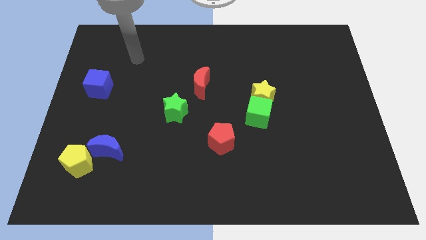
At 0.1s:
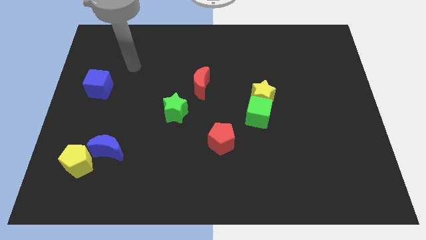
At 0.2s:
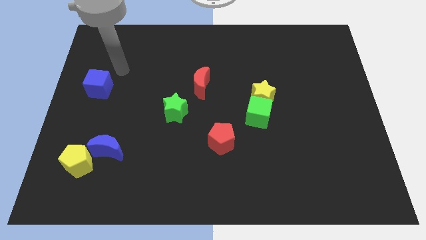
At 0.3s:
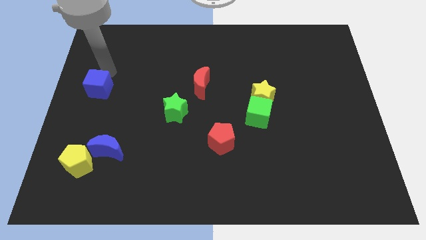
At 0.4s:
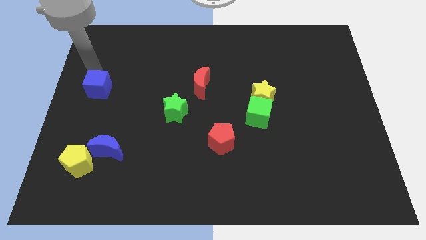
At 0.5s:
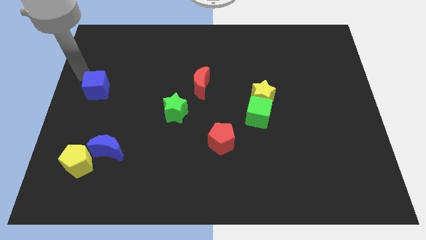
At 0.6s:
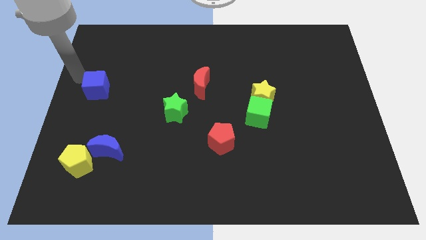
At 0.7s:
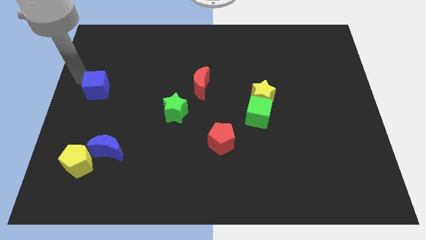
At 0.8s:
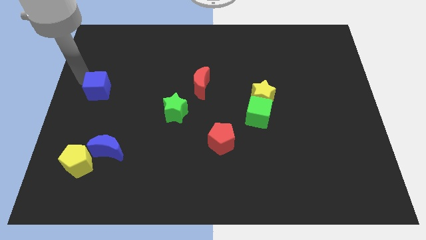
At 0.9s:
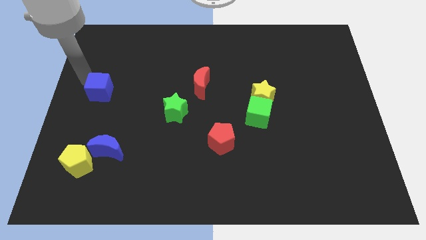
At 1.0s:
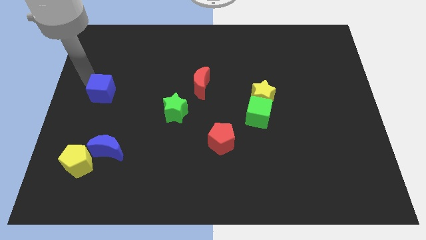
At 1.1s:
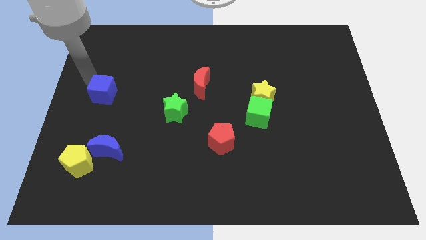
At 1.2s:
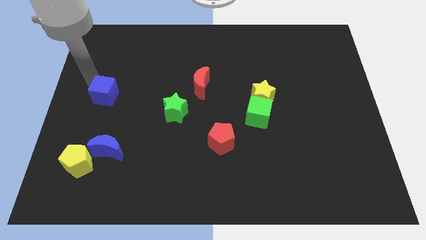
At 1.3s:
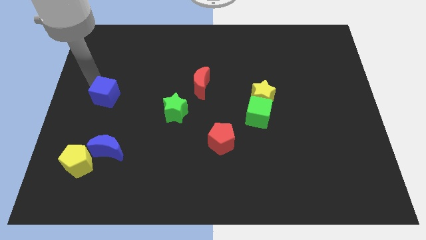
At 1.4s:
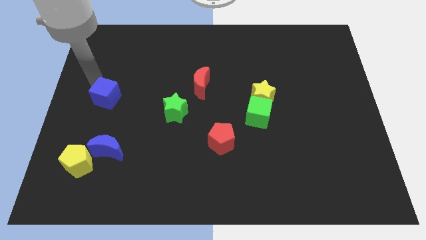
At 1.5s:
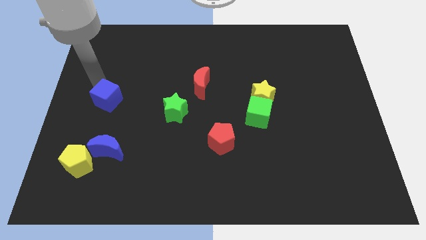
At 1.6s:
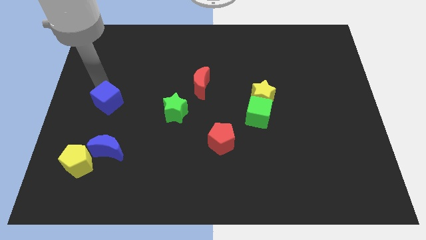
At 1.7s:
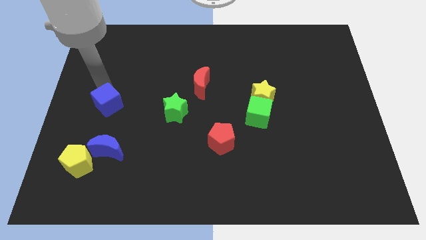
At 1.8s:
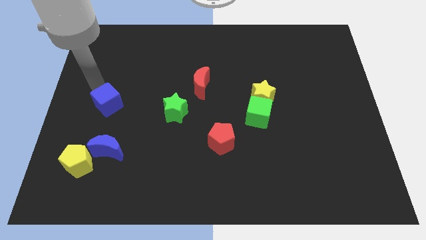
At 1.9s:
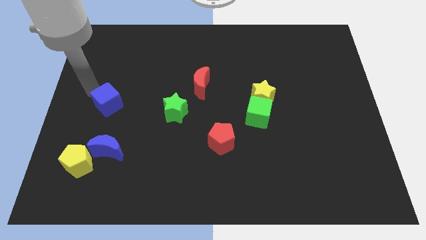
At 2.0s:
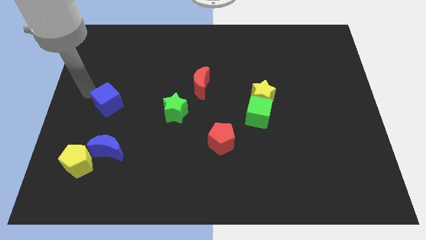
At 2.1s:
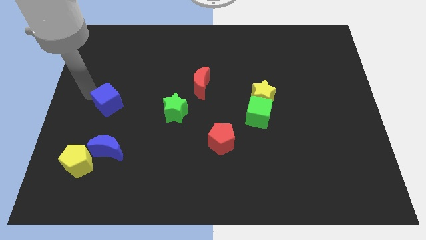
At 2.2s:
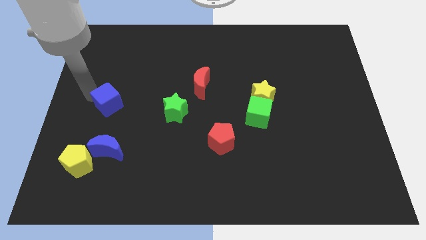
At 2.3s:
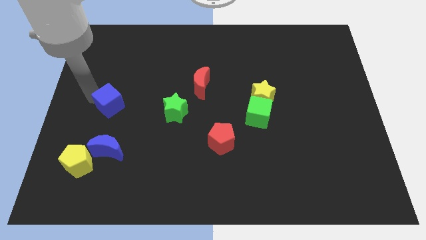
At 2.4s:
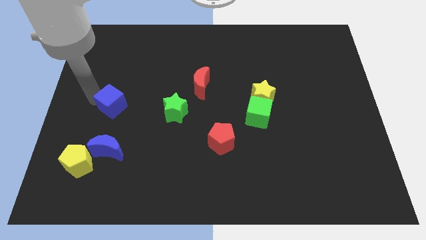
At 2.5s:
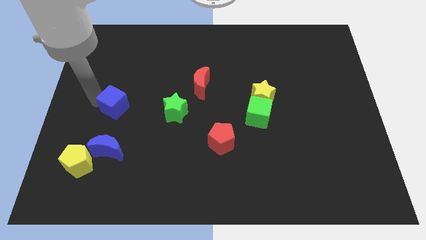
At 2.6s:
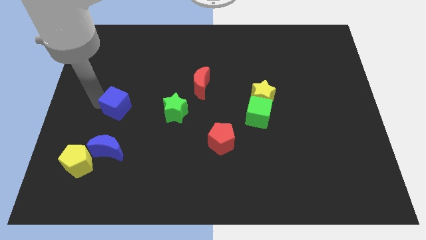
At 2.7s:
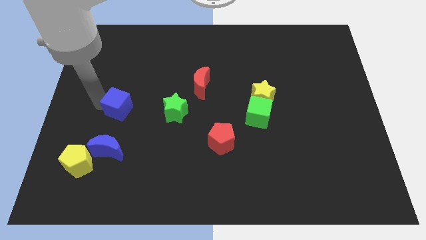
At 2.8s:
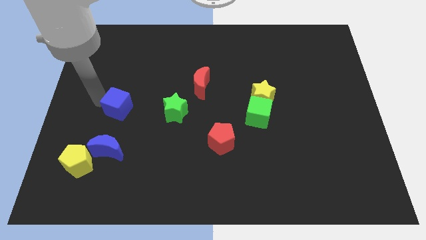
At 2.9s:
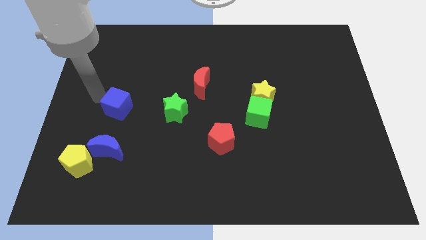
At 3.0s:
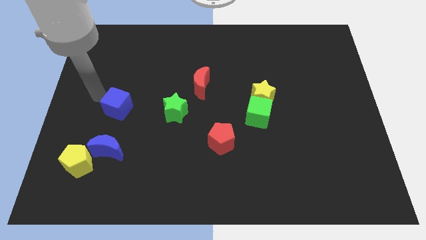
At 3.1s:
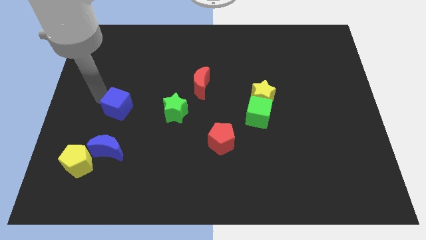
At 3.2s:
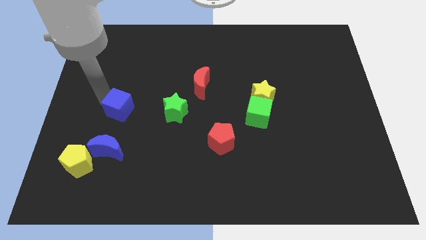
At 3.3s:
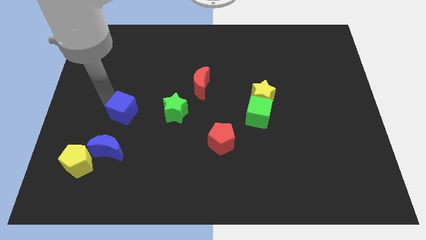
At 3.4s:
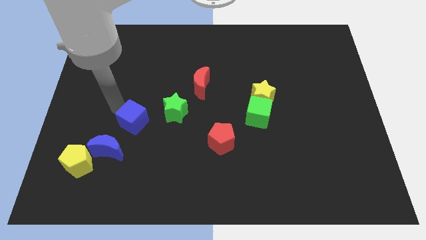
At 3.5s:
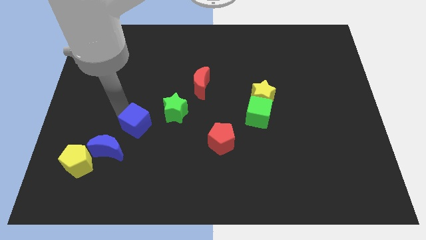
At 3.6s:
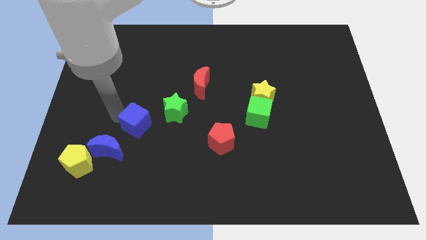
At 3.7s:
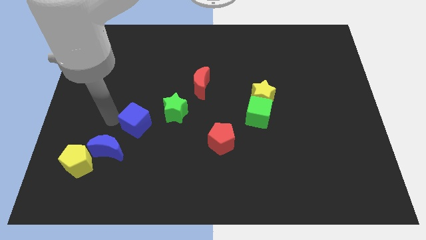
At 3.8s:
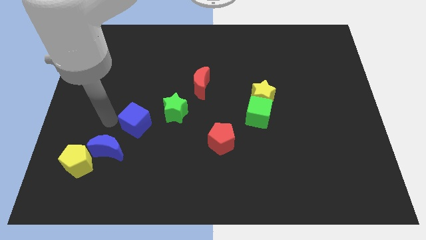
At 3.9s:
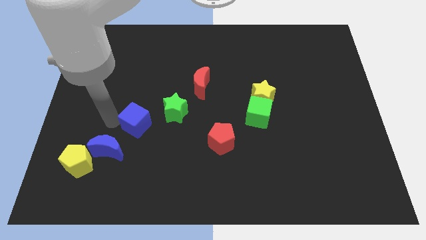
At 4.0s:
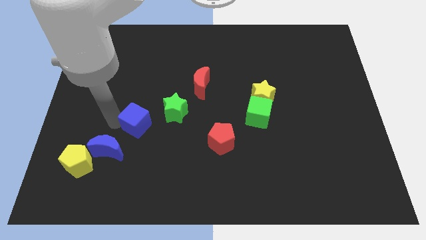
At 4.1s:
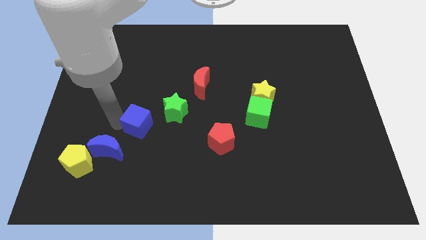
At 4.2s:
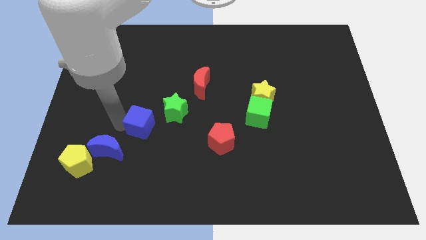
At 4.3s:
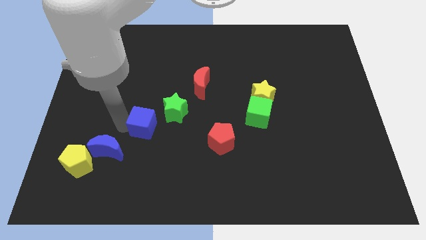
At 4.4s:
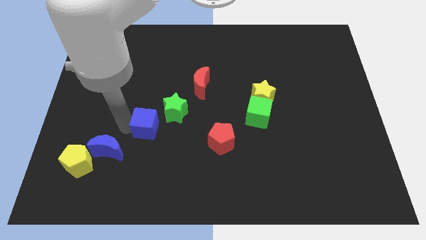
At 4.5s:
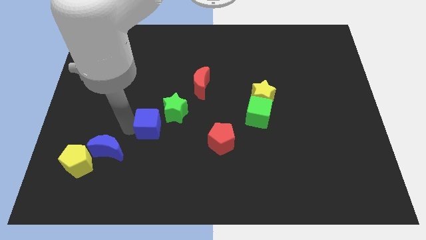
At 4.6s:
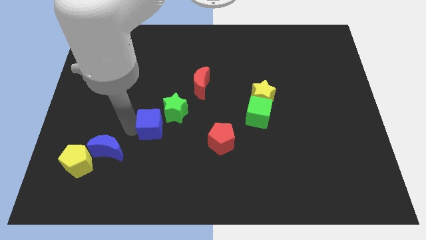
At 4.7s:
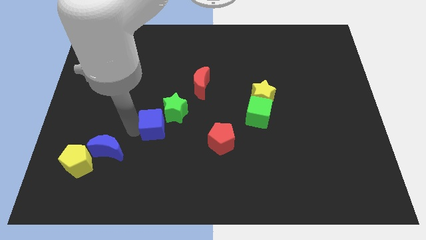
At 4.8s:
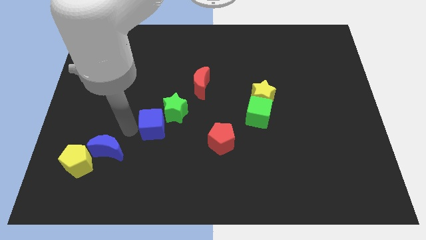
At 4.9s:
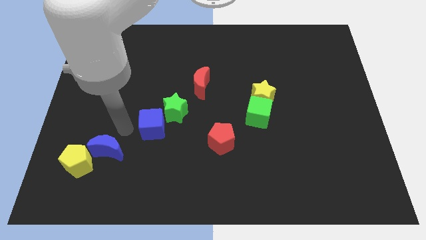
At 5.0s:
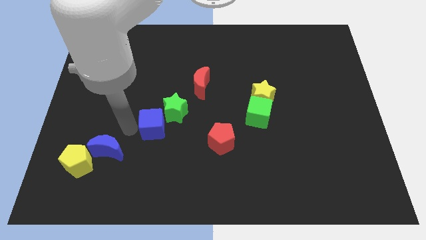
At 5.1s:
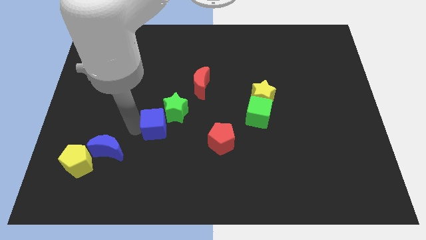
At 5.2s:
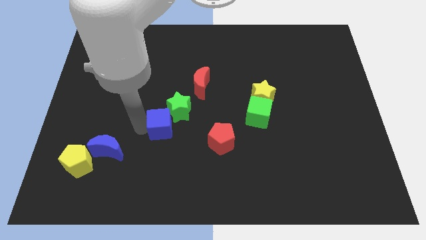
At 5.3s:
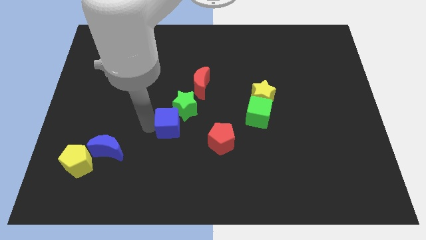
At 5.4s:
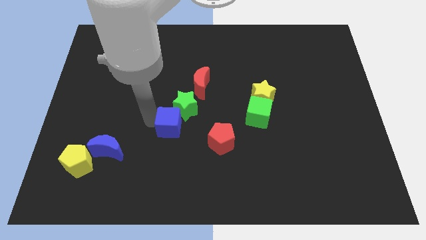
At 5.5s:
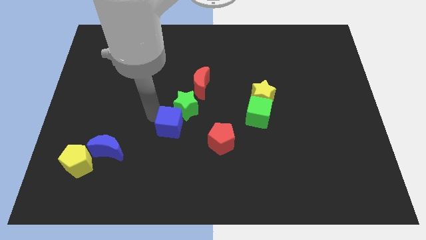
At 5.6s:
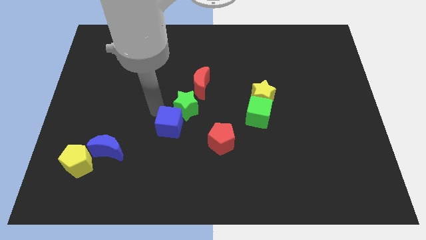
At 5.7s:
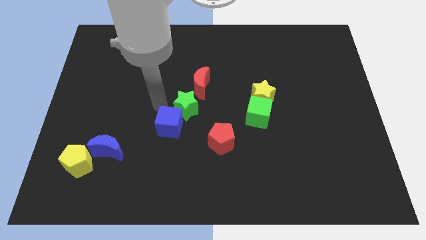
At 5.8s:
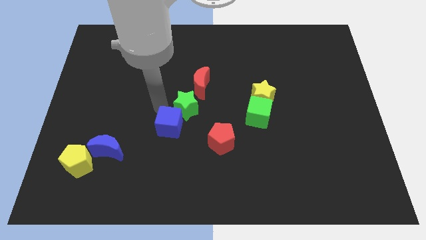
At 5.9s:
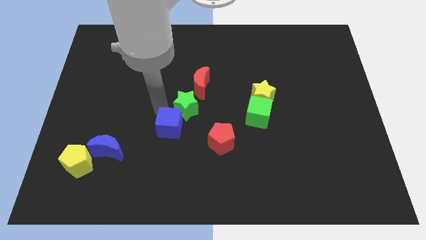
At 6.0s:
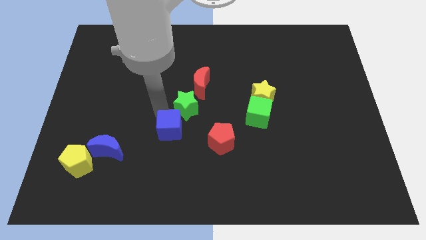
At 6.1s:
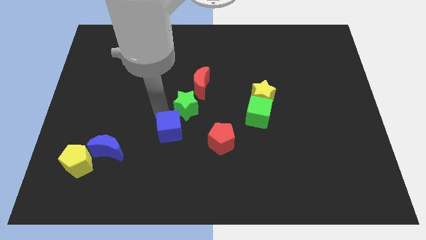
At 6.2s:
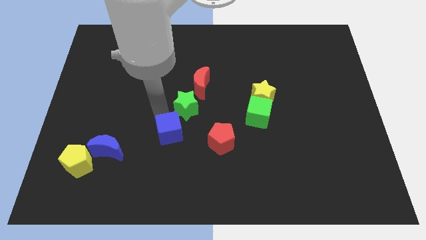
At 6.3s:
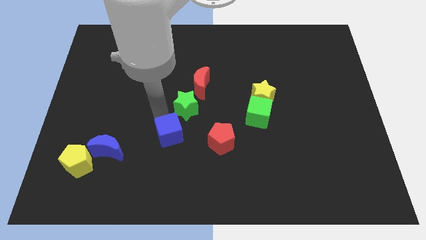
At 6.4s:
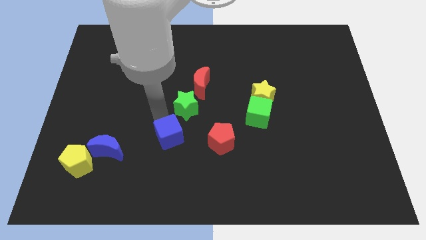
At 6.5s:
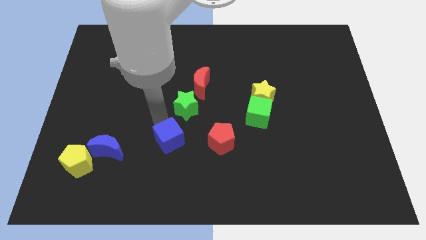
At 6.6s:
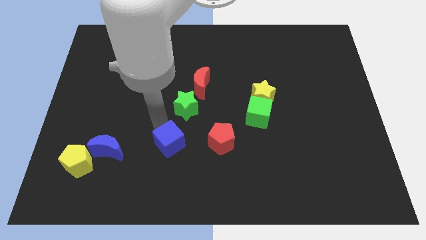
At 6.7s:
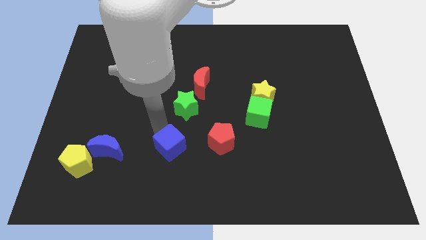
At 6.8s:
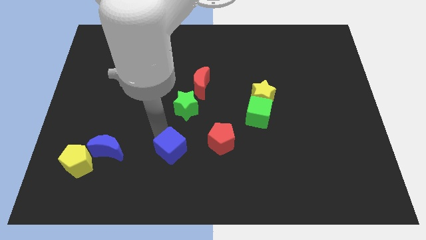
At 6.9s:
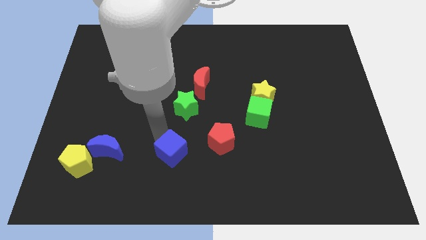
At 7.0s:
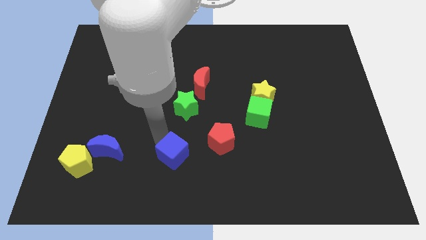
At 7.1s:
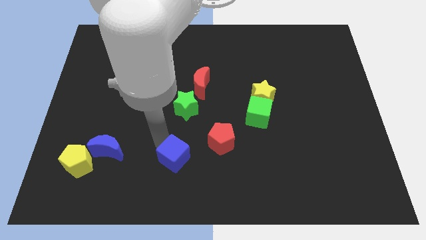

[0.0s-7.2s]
push the blue cube diagonally down and to the left of the red pentagon
